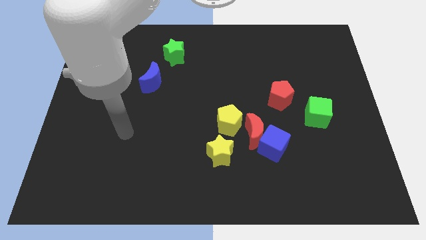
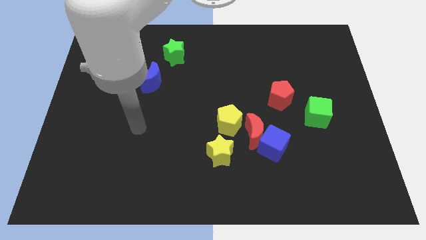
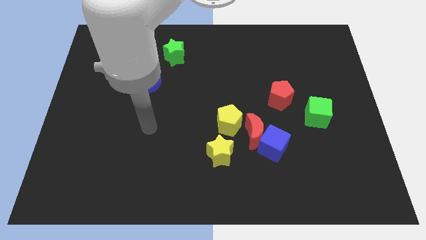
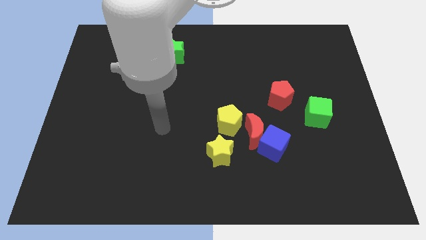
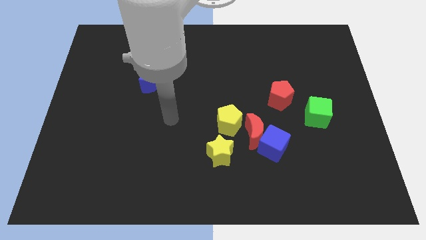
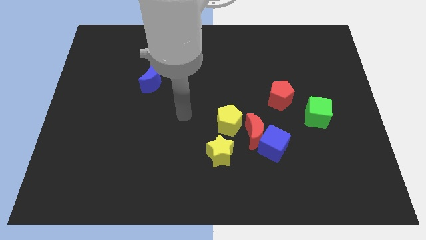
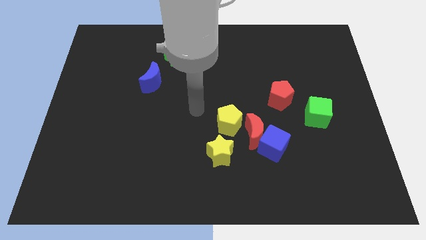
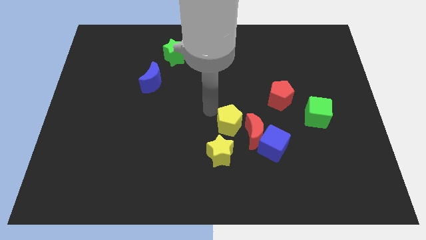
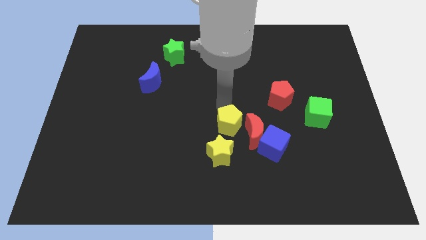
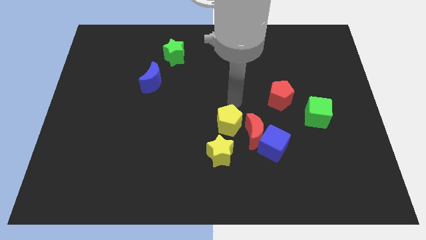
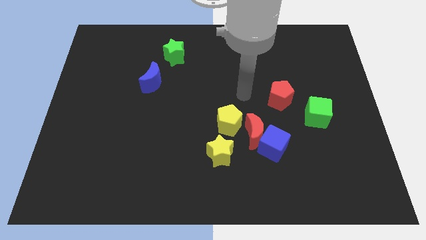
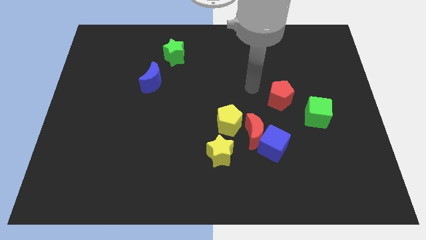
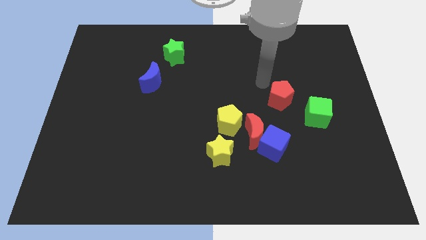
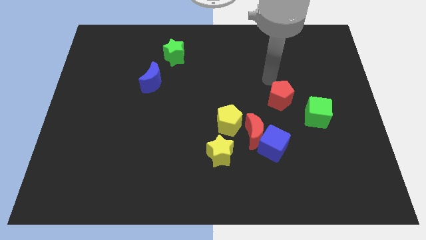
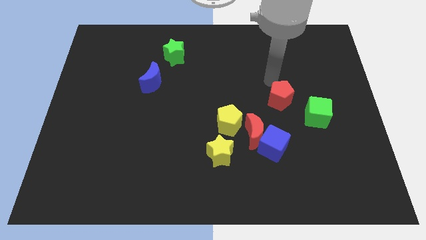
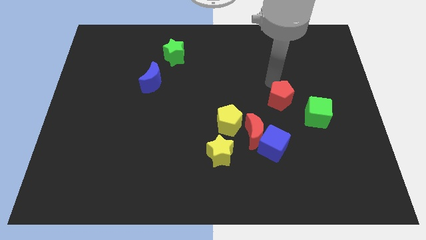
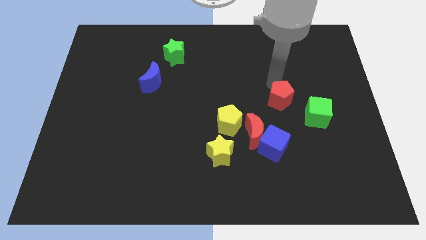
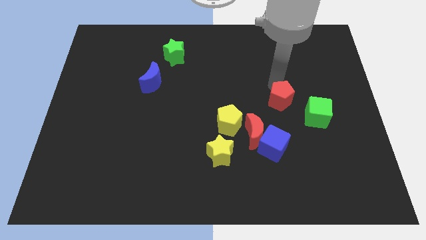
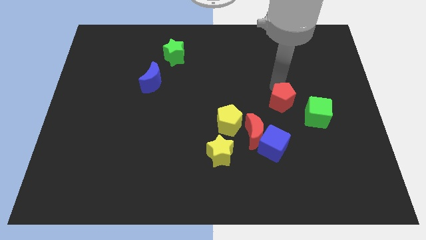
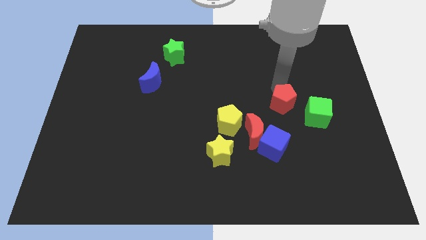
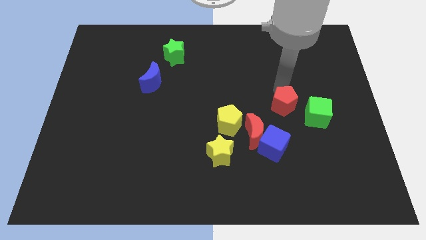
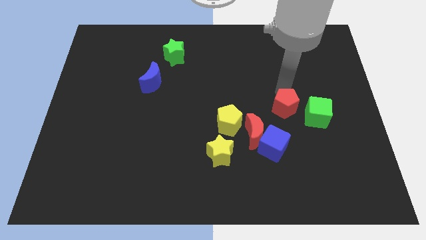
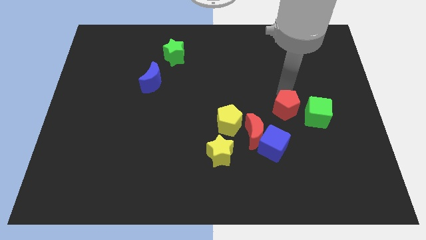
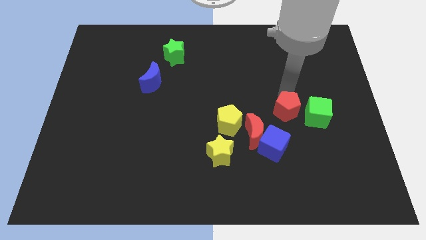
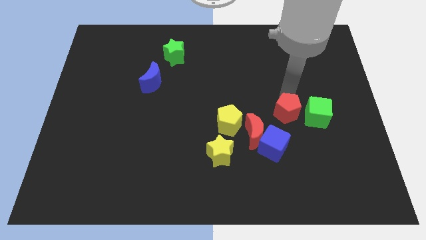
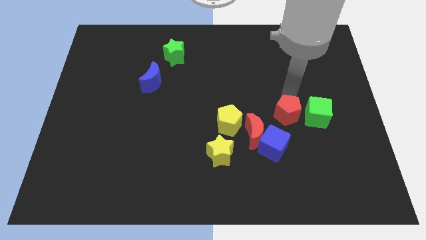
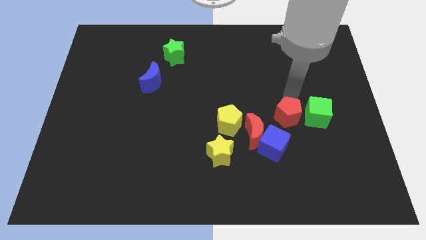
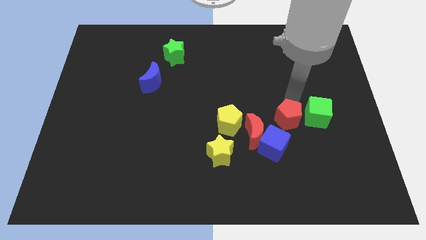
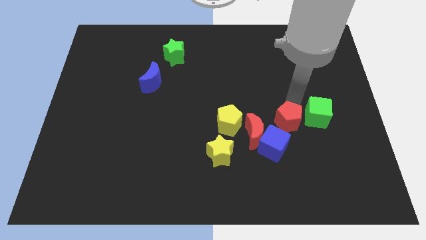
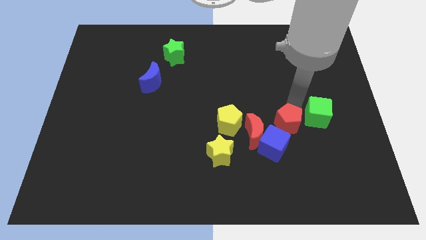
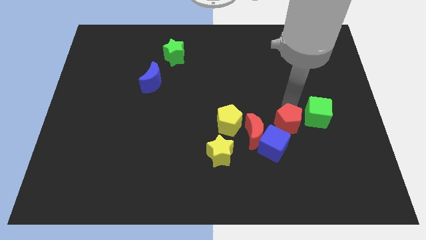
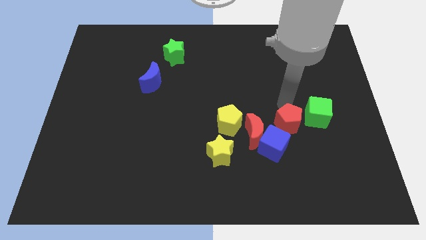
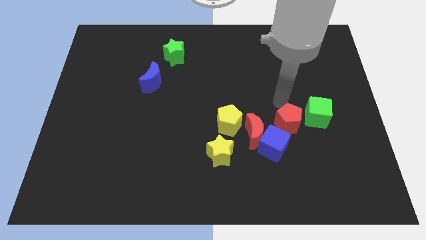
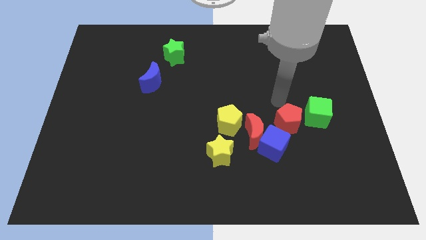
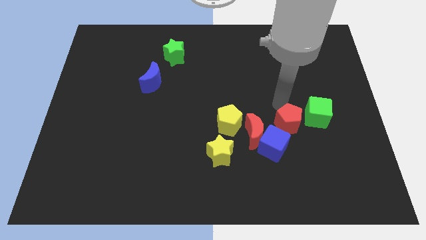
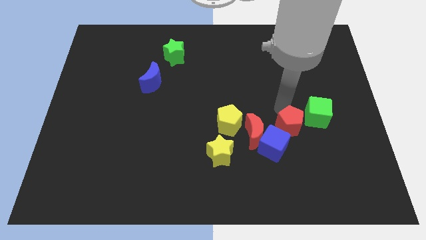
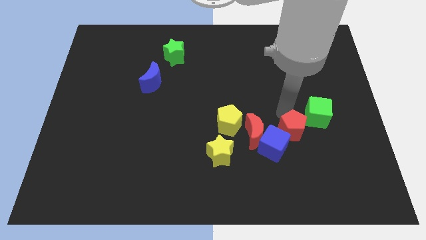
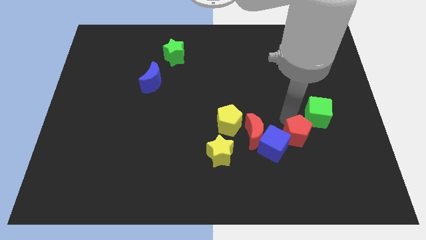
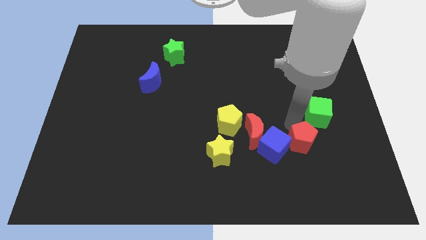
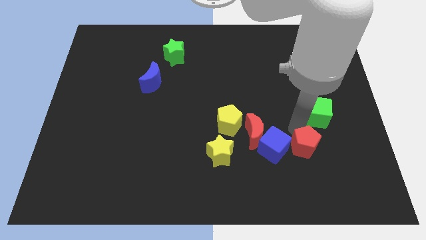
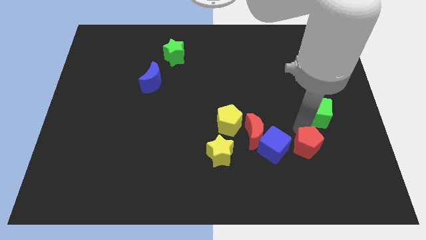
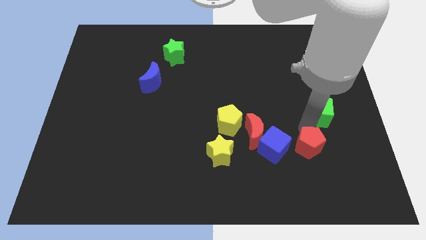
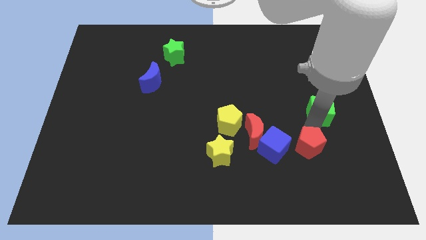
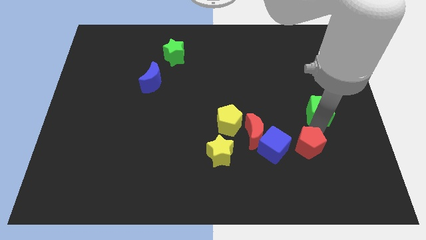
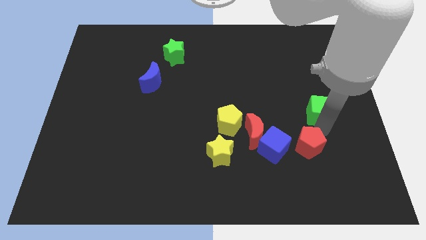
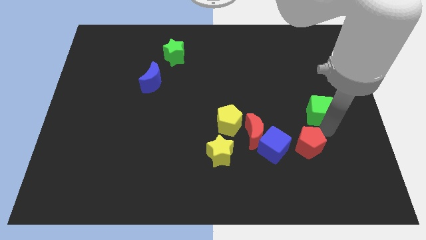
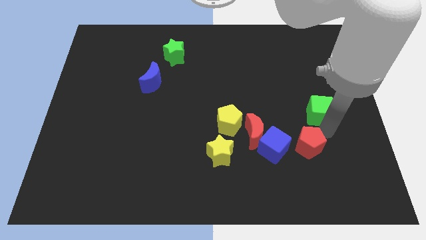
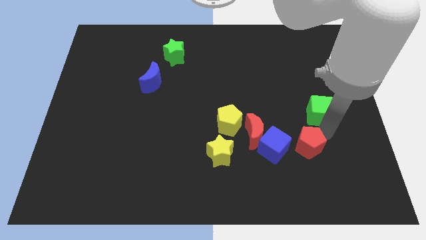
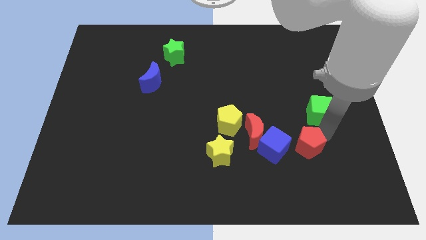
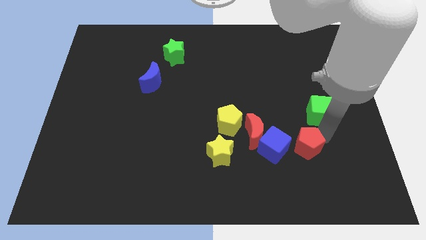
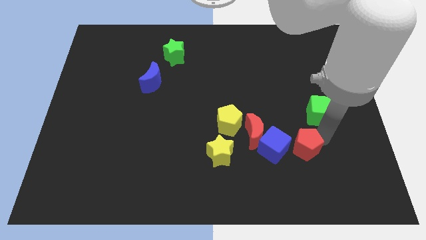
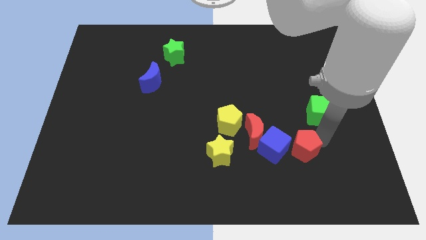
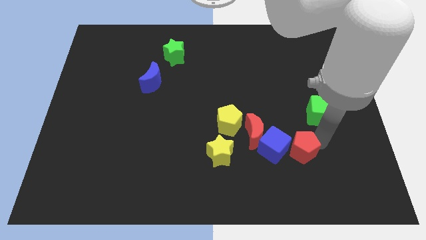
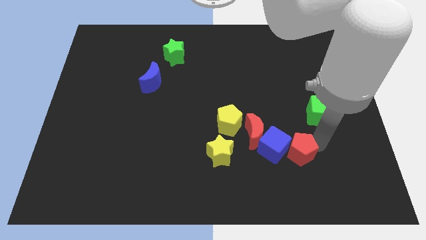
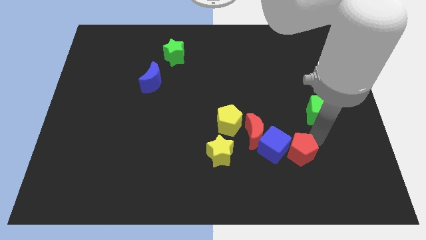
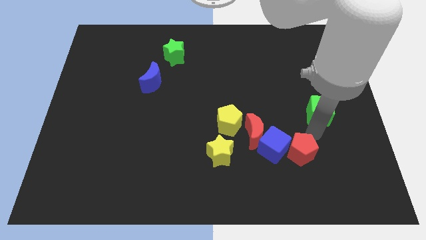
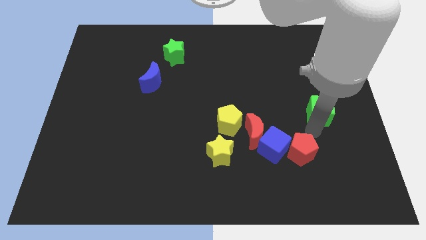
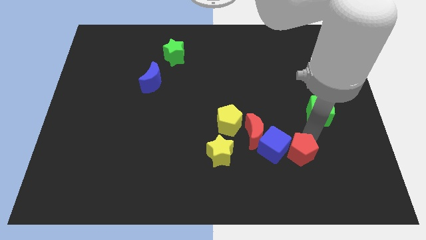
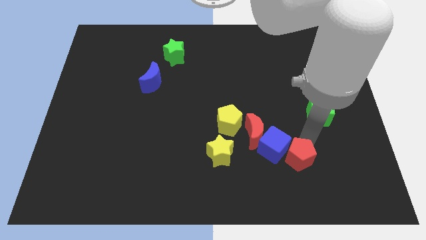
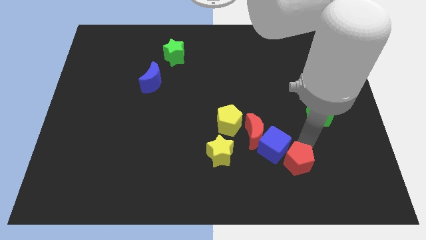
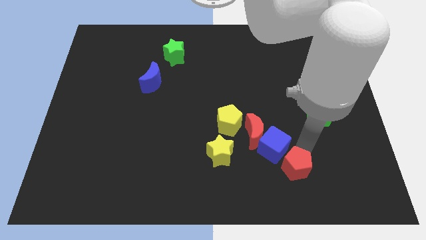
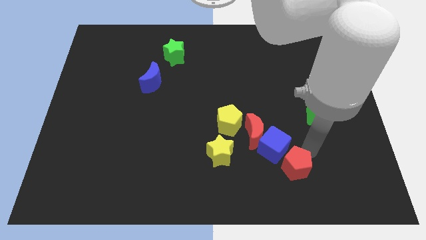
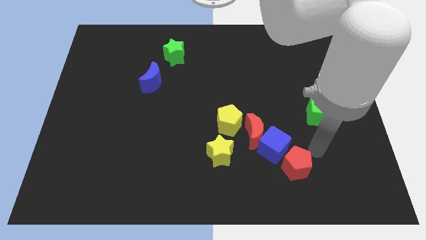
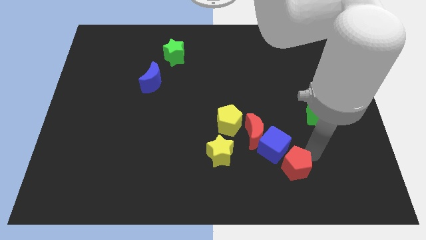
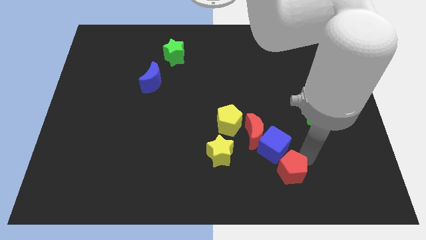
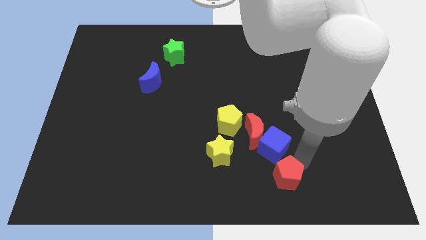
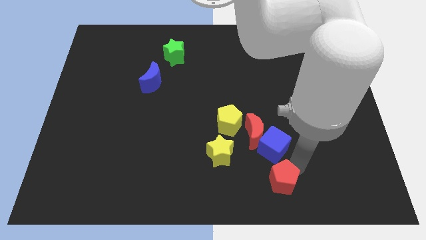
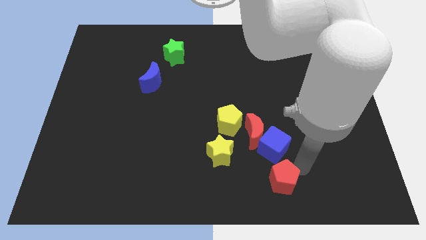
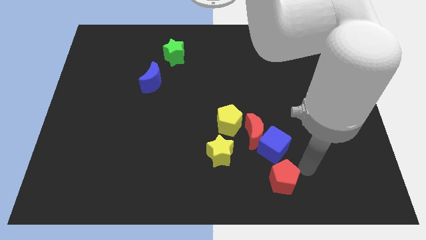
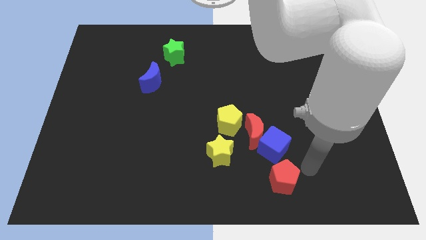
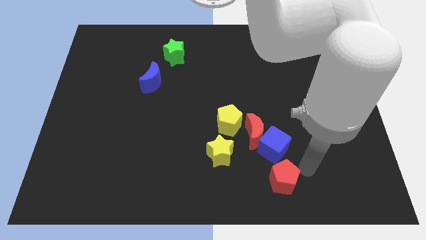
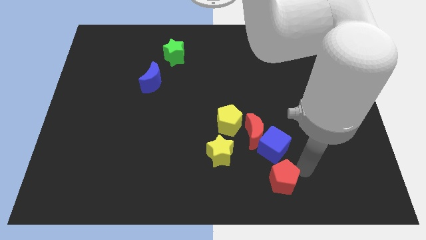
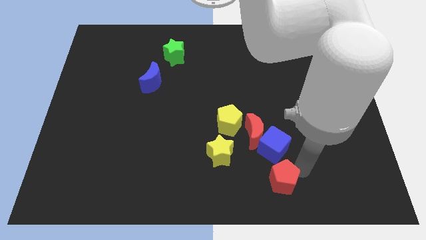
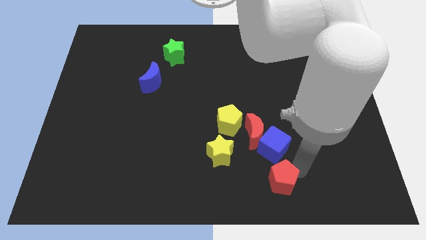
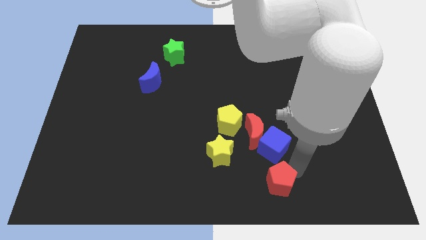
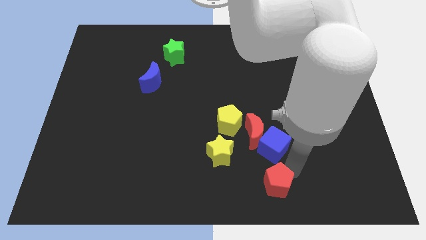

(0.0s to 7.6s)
move the red pentagon to the bottom
